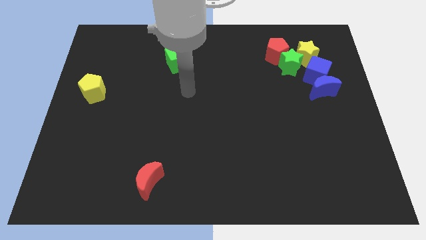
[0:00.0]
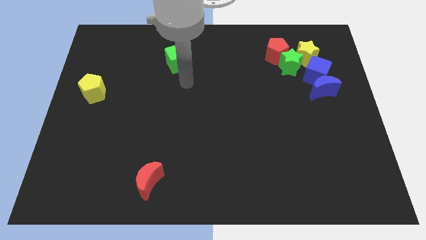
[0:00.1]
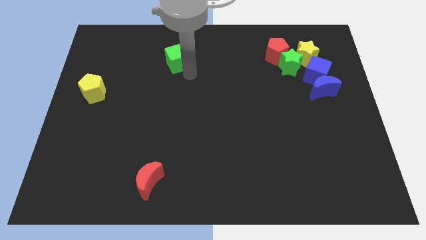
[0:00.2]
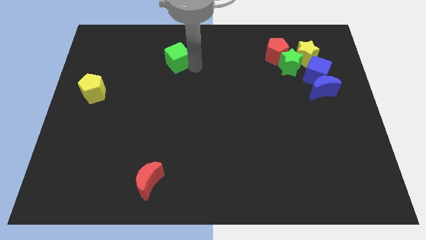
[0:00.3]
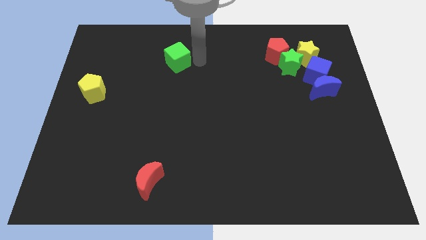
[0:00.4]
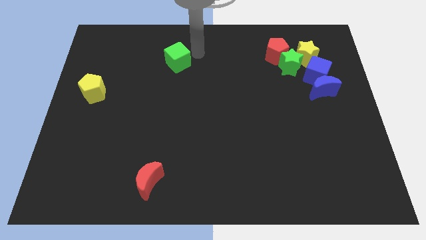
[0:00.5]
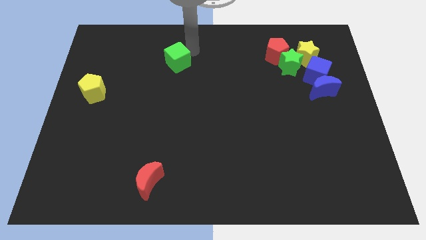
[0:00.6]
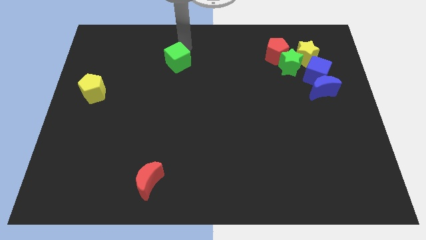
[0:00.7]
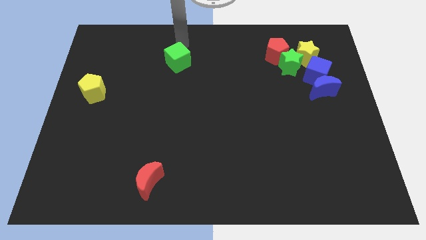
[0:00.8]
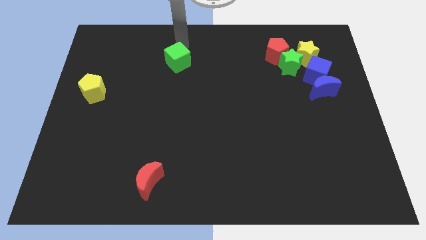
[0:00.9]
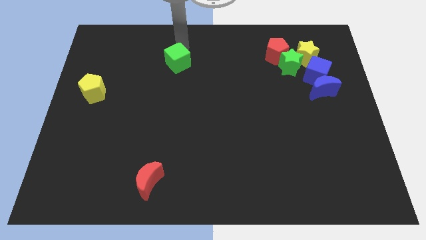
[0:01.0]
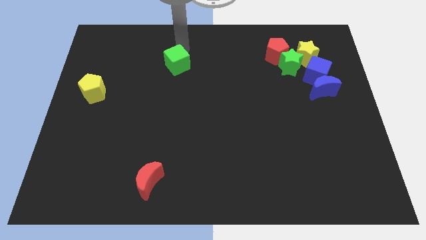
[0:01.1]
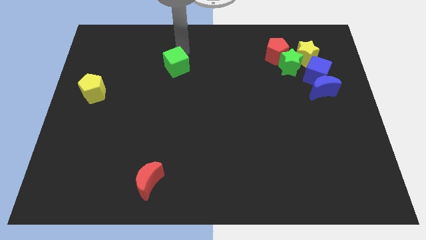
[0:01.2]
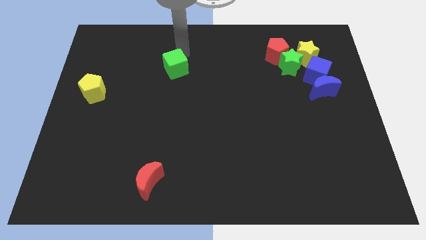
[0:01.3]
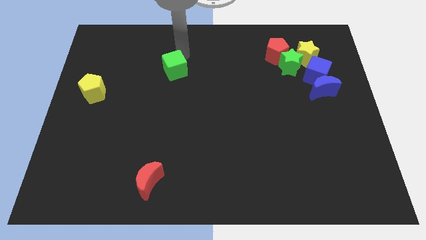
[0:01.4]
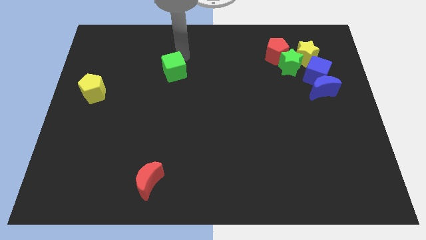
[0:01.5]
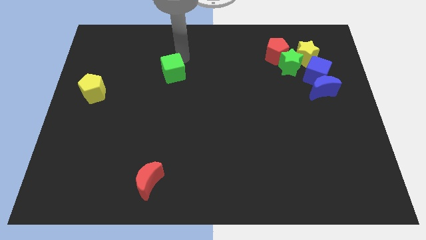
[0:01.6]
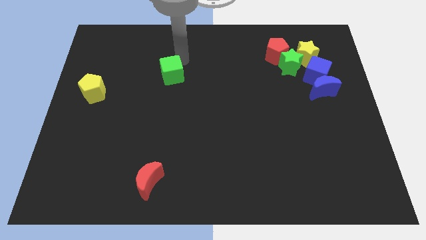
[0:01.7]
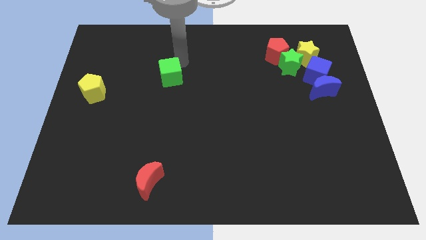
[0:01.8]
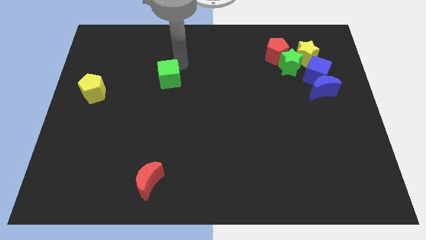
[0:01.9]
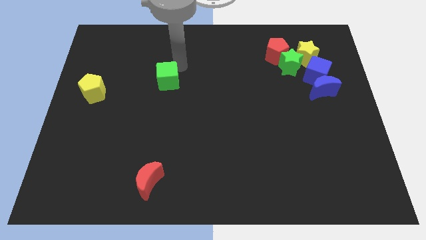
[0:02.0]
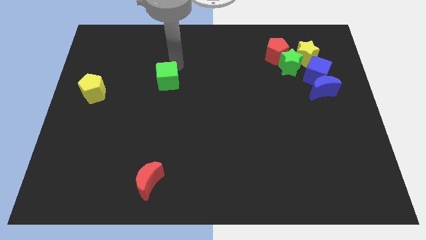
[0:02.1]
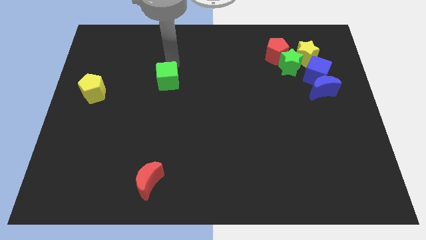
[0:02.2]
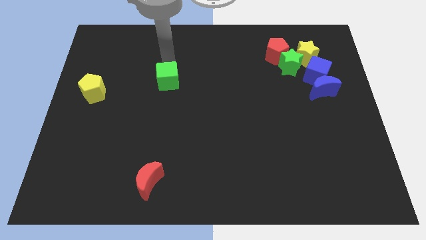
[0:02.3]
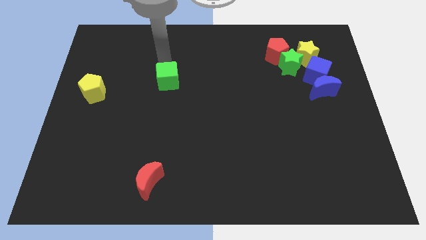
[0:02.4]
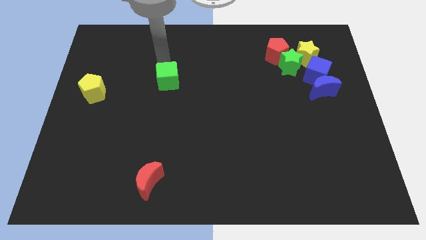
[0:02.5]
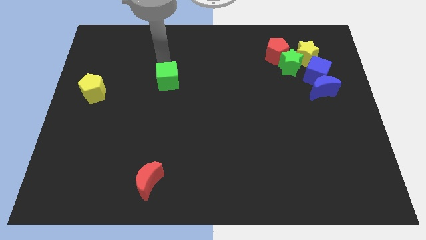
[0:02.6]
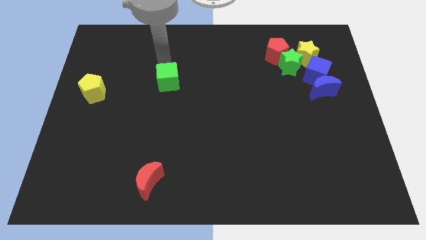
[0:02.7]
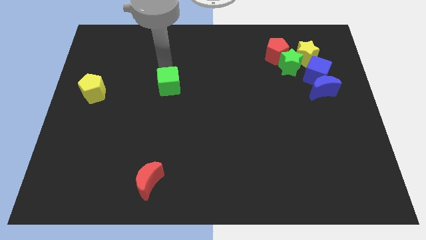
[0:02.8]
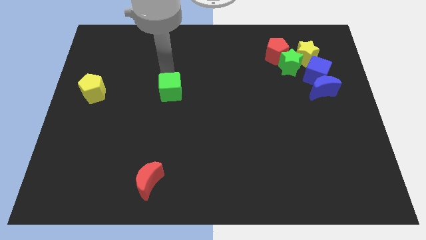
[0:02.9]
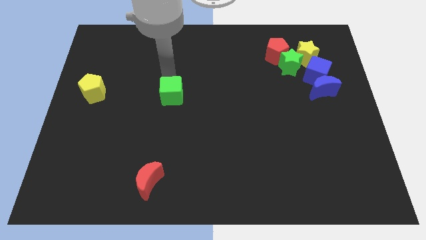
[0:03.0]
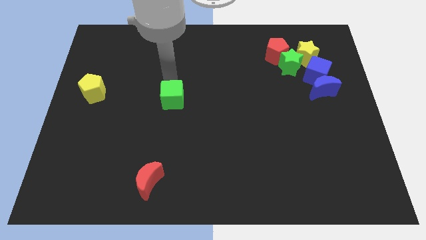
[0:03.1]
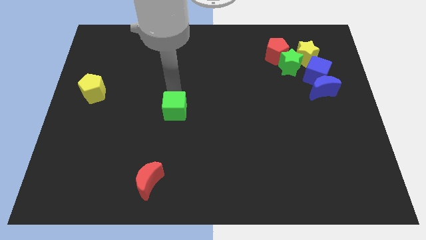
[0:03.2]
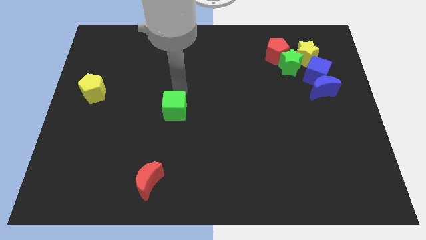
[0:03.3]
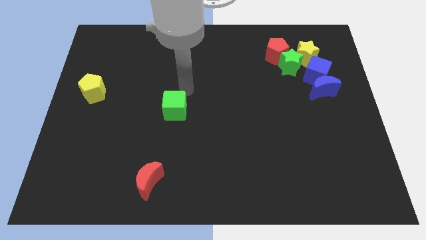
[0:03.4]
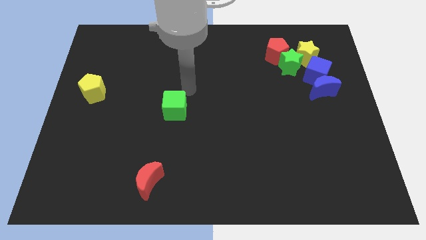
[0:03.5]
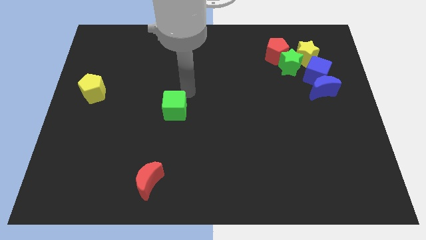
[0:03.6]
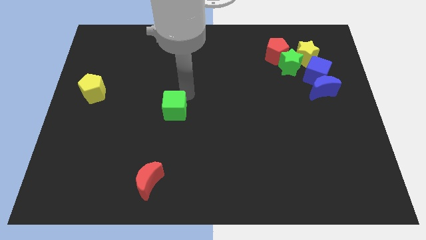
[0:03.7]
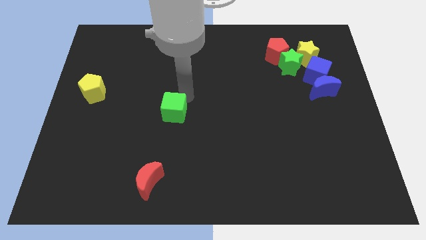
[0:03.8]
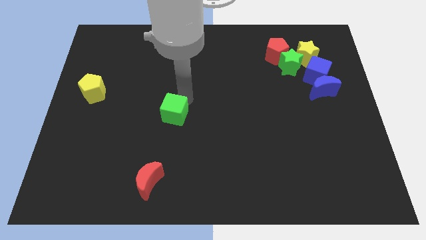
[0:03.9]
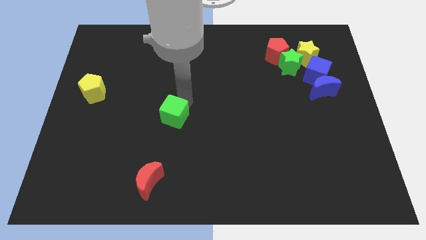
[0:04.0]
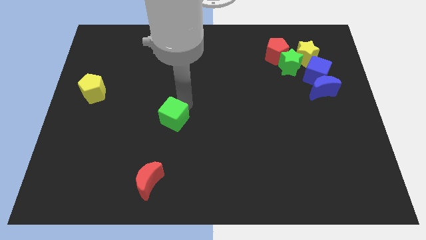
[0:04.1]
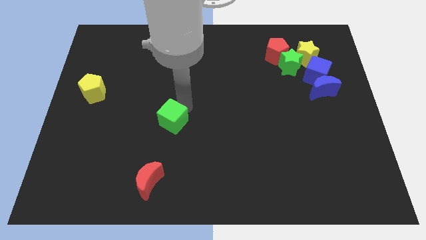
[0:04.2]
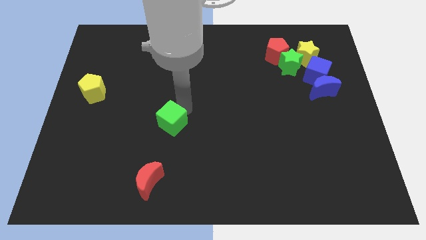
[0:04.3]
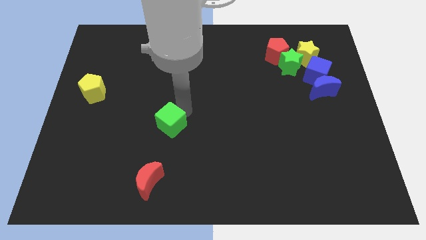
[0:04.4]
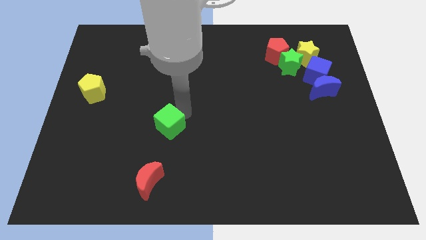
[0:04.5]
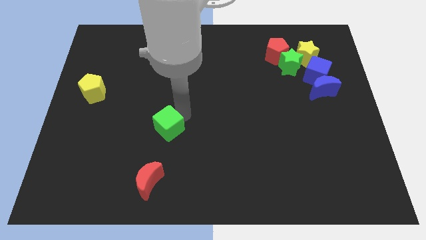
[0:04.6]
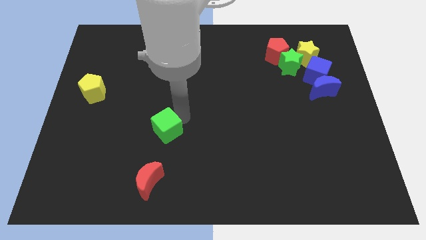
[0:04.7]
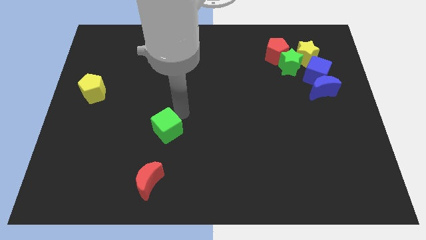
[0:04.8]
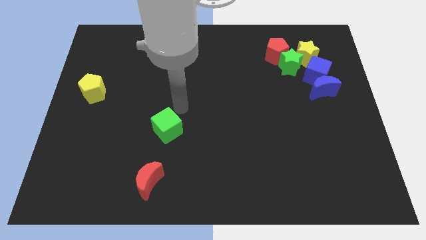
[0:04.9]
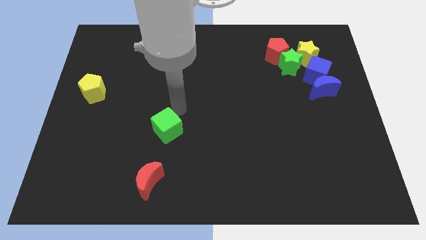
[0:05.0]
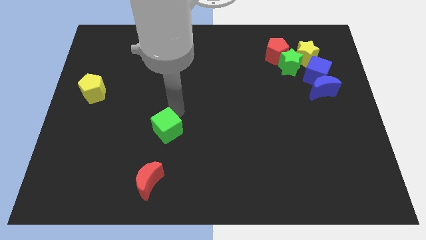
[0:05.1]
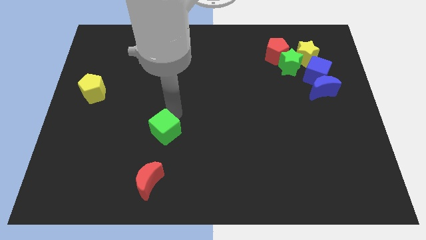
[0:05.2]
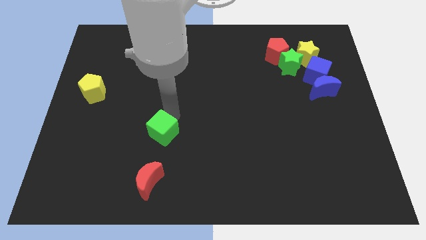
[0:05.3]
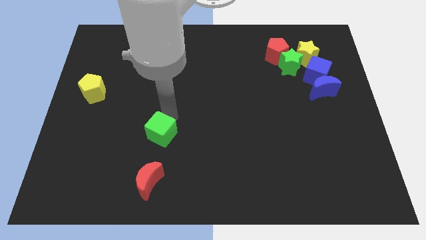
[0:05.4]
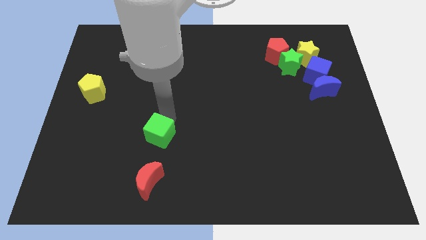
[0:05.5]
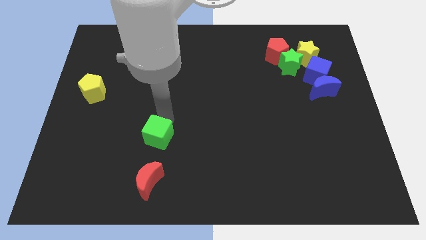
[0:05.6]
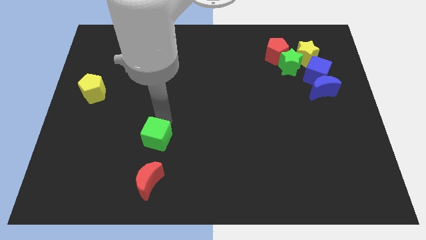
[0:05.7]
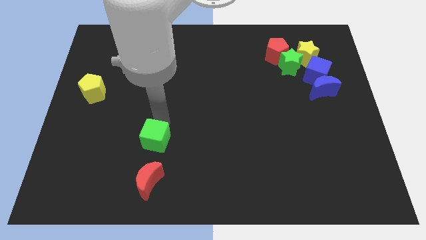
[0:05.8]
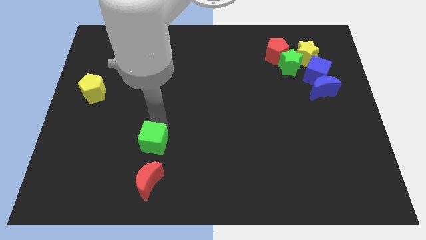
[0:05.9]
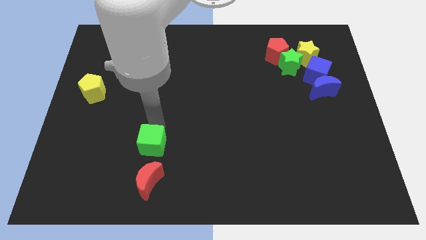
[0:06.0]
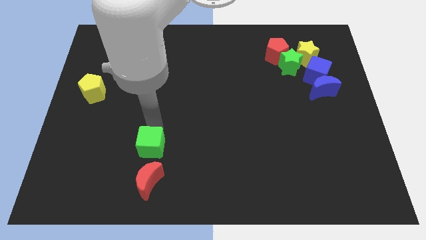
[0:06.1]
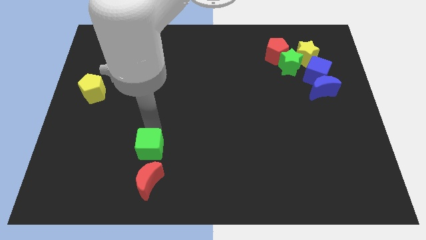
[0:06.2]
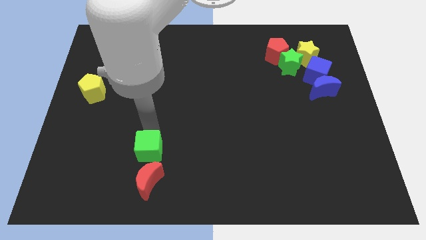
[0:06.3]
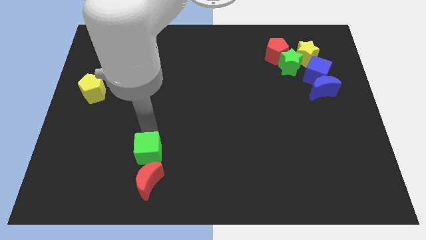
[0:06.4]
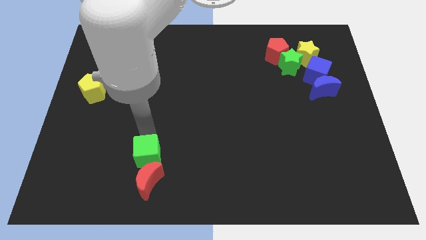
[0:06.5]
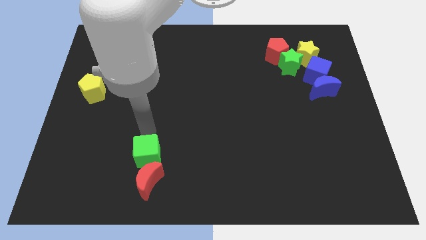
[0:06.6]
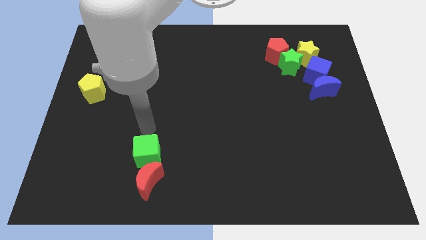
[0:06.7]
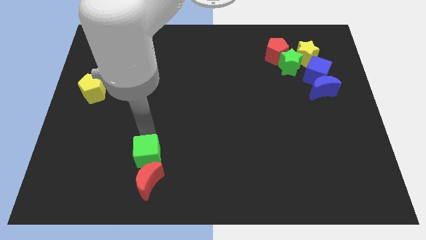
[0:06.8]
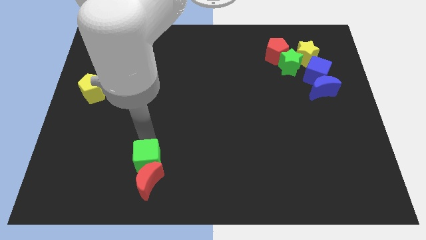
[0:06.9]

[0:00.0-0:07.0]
slide the green cube next to the red moon
